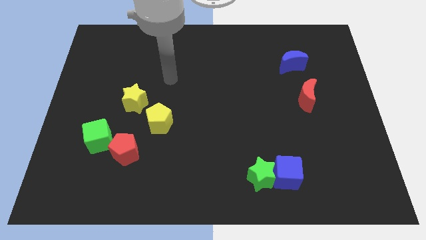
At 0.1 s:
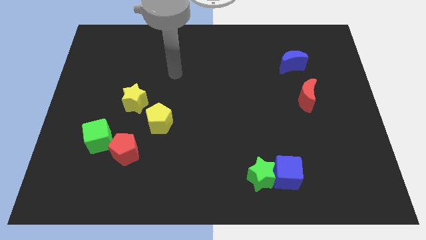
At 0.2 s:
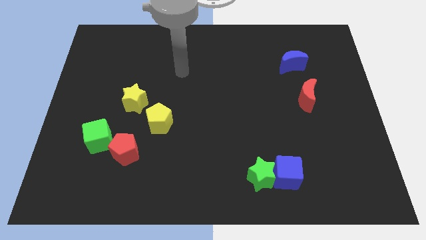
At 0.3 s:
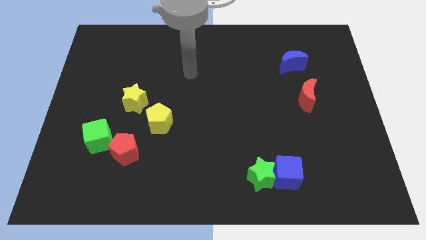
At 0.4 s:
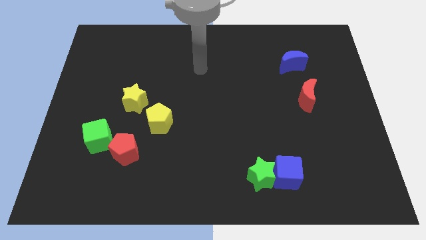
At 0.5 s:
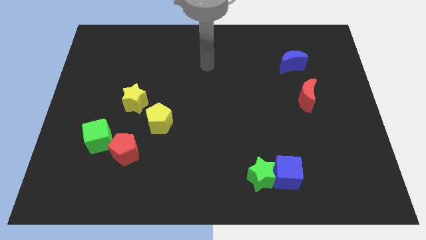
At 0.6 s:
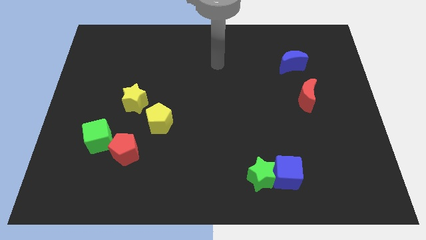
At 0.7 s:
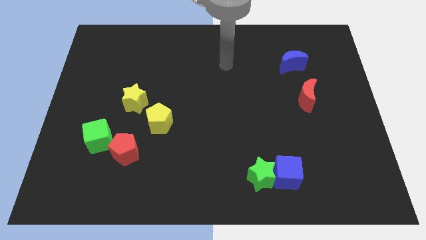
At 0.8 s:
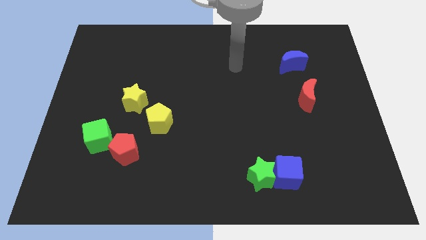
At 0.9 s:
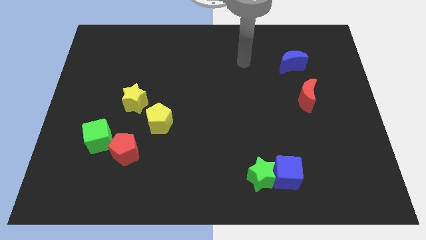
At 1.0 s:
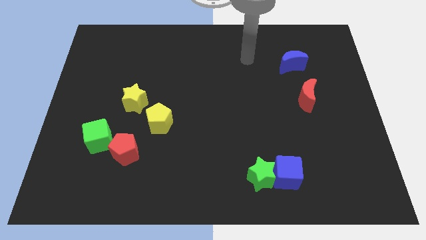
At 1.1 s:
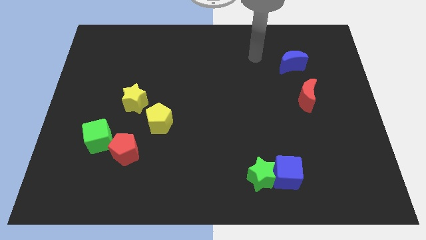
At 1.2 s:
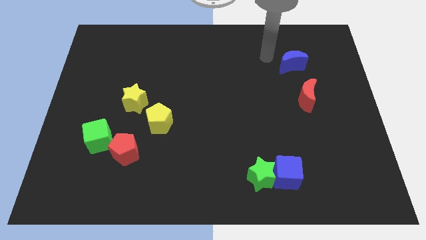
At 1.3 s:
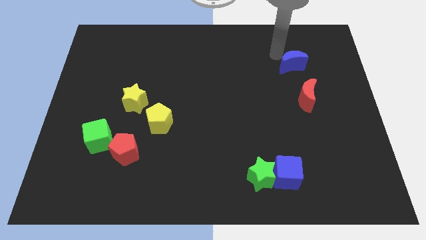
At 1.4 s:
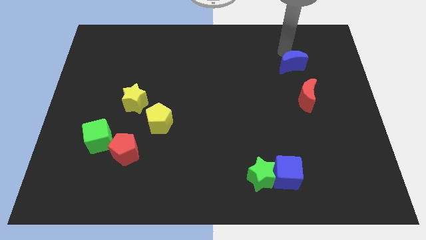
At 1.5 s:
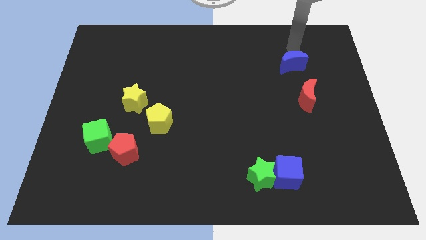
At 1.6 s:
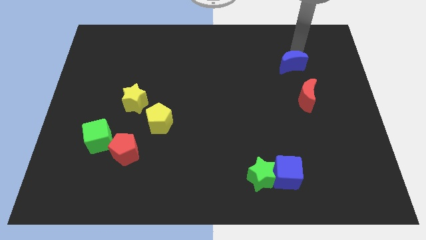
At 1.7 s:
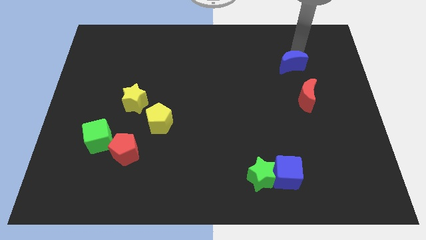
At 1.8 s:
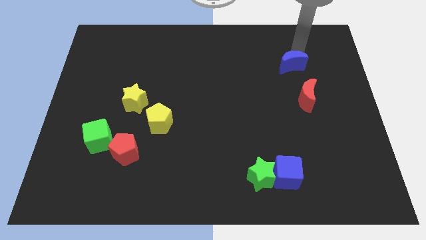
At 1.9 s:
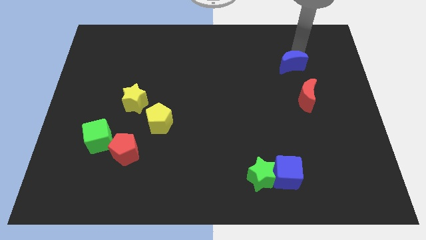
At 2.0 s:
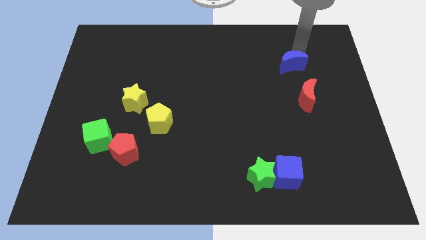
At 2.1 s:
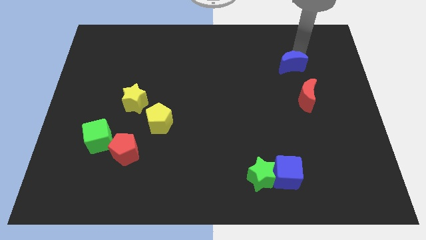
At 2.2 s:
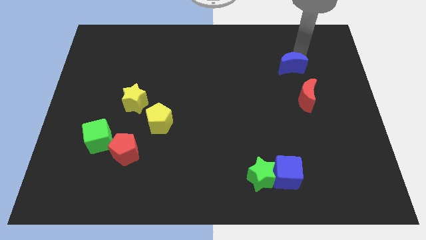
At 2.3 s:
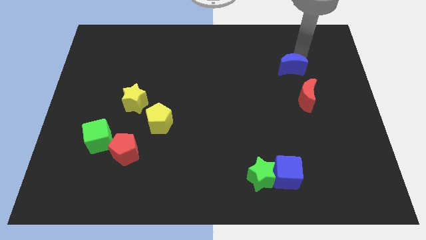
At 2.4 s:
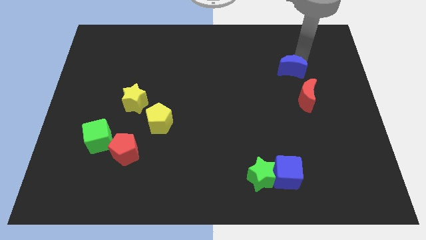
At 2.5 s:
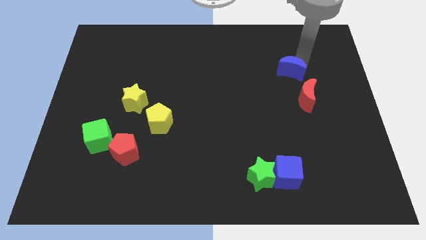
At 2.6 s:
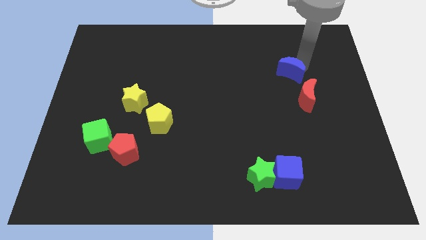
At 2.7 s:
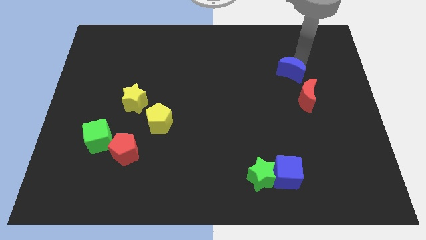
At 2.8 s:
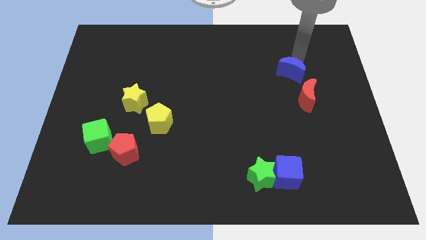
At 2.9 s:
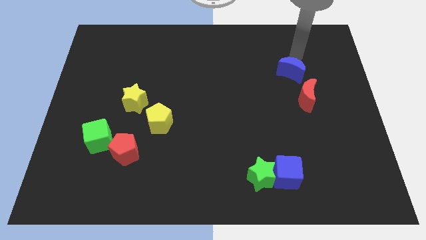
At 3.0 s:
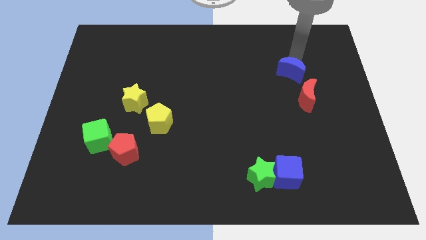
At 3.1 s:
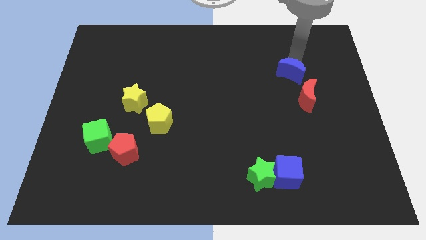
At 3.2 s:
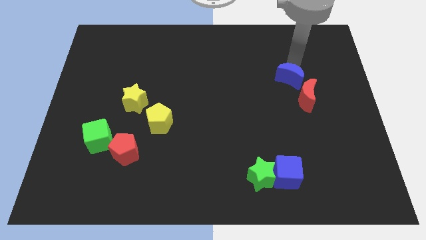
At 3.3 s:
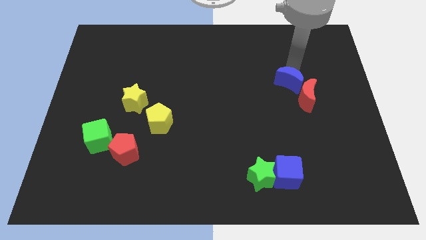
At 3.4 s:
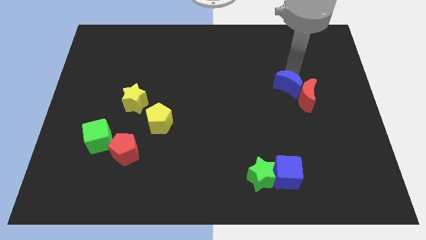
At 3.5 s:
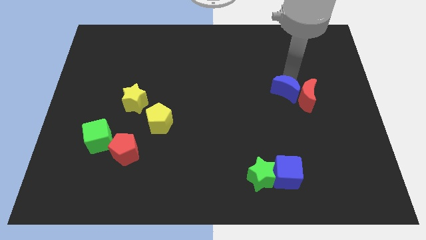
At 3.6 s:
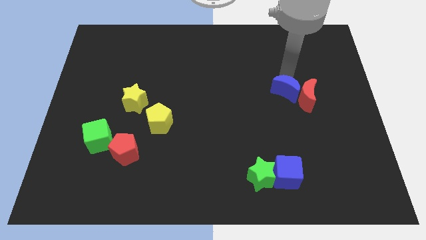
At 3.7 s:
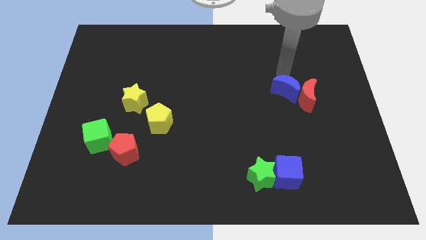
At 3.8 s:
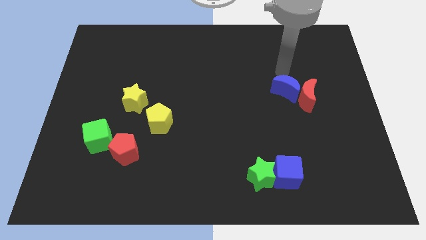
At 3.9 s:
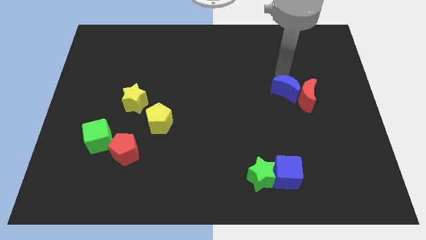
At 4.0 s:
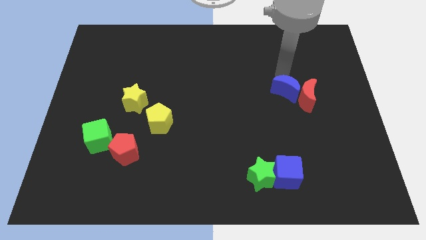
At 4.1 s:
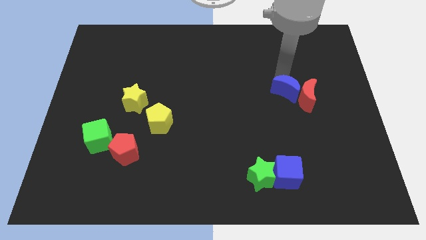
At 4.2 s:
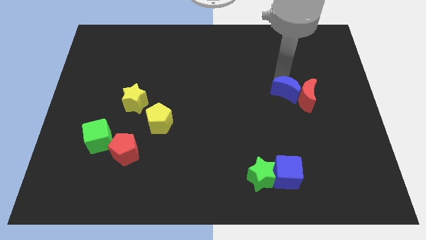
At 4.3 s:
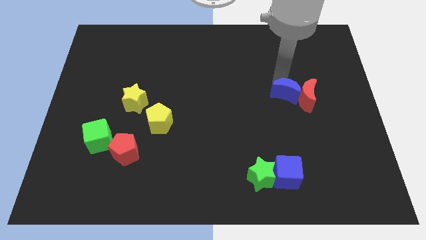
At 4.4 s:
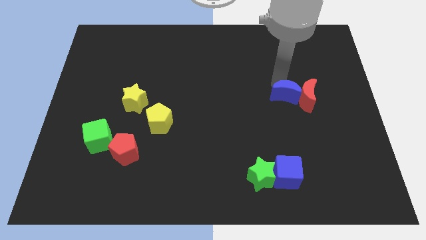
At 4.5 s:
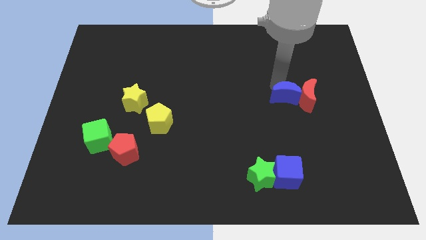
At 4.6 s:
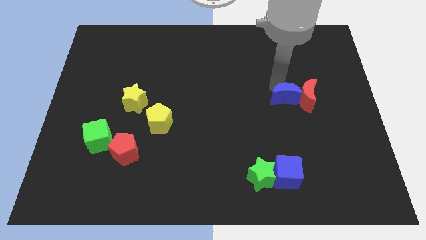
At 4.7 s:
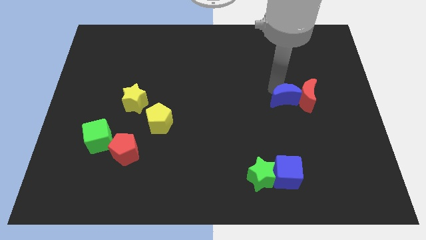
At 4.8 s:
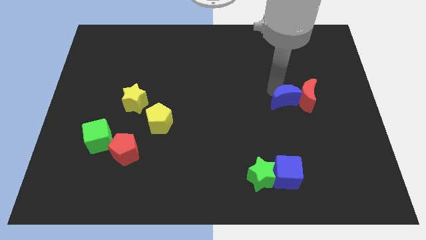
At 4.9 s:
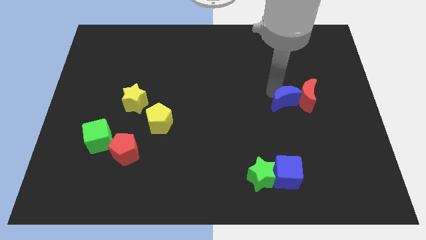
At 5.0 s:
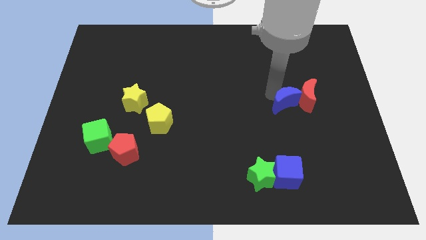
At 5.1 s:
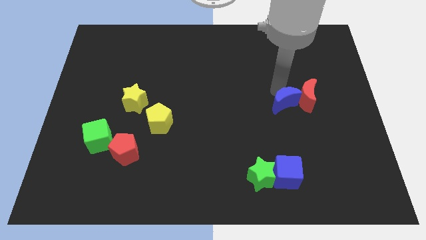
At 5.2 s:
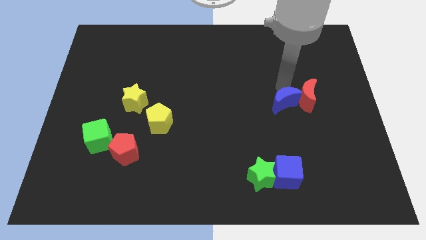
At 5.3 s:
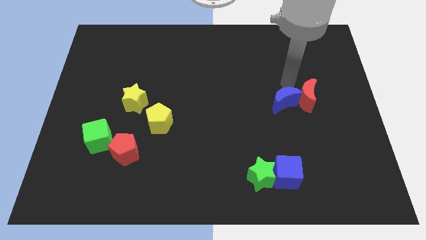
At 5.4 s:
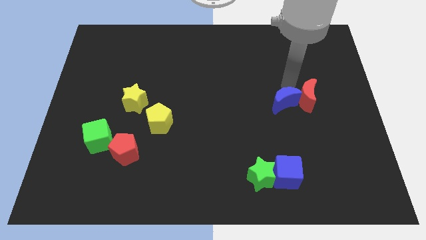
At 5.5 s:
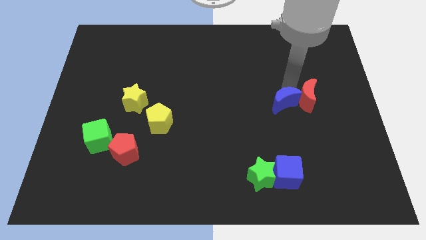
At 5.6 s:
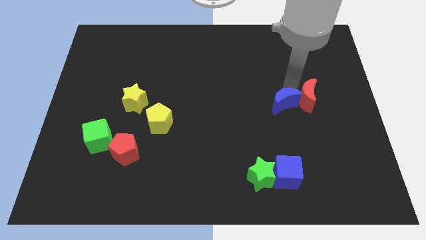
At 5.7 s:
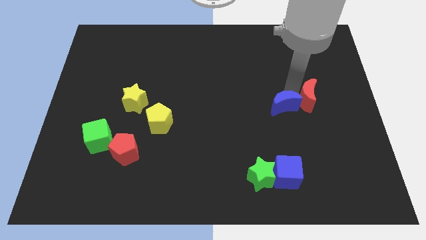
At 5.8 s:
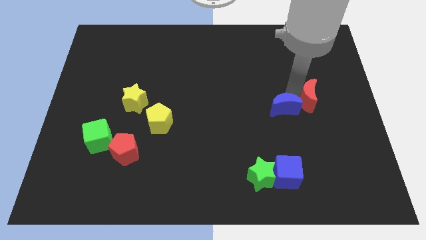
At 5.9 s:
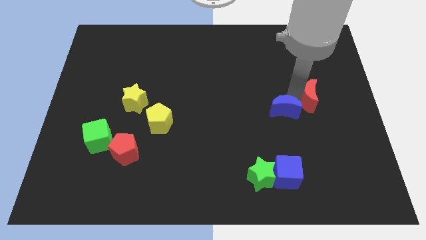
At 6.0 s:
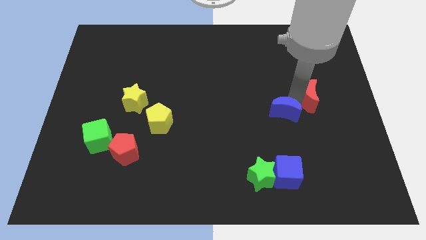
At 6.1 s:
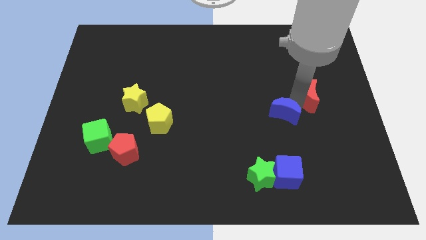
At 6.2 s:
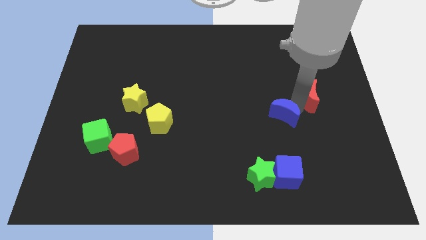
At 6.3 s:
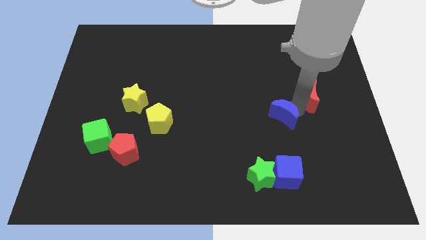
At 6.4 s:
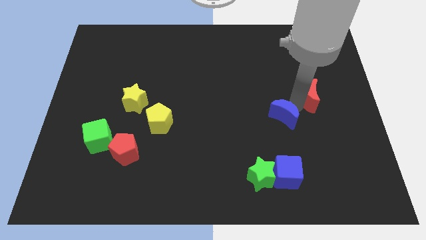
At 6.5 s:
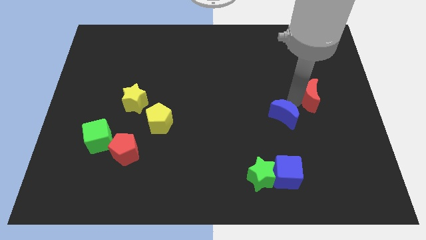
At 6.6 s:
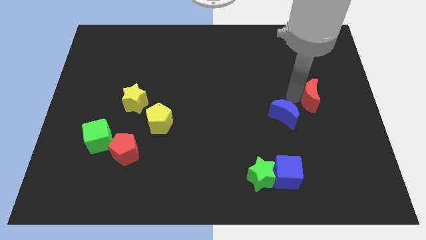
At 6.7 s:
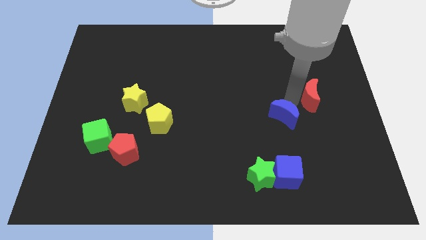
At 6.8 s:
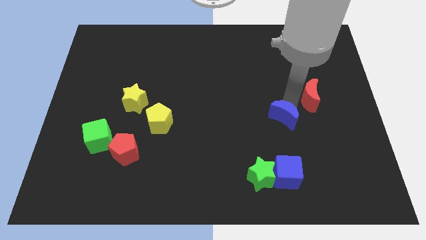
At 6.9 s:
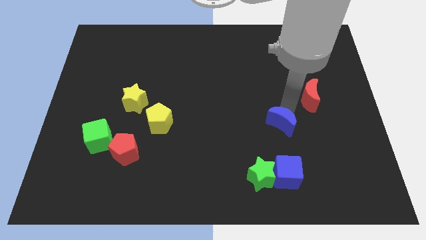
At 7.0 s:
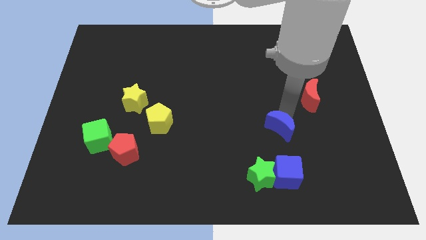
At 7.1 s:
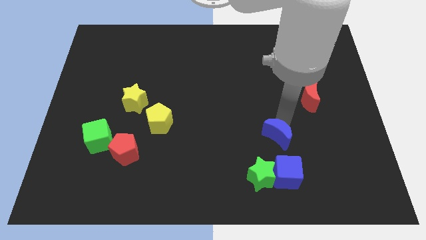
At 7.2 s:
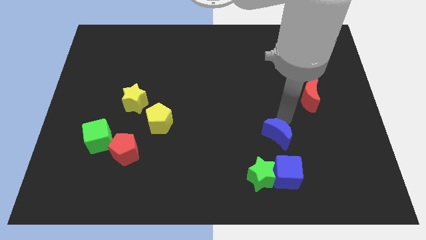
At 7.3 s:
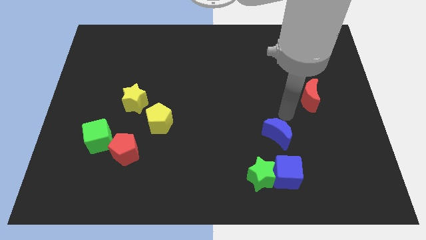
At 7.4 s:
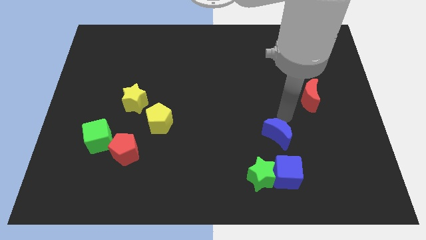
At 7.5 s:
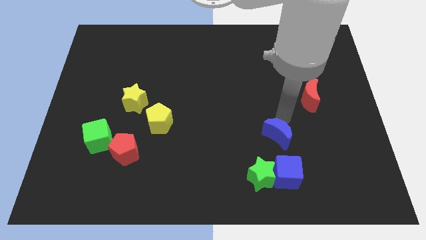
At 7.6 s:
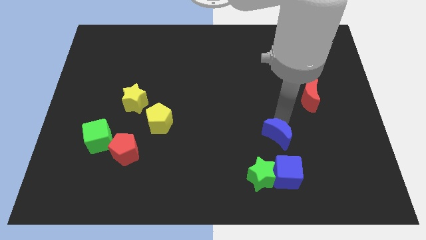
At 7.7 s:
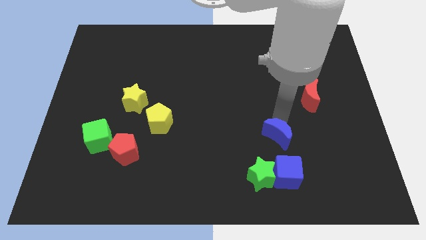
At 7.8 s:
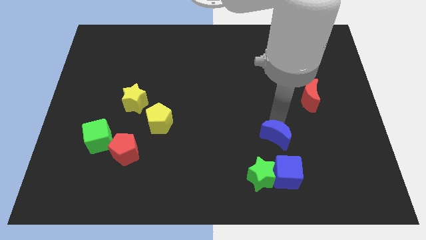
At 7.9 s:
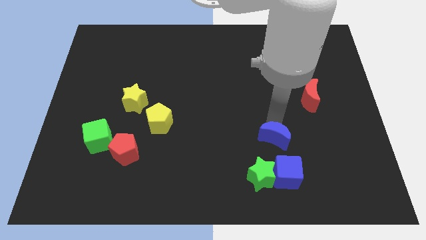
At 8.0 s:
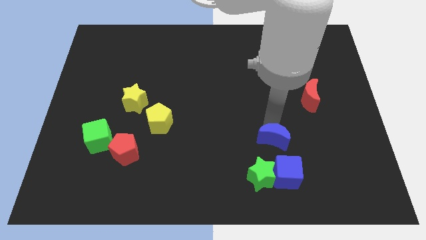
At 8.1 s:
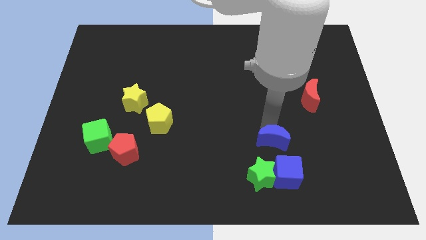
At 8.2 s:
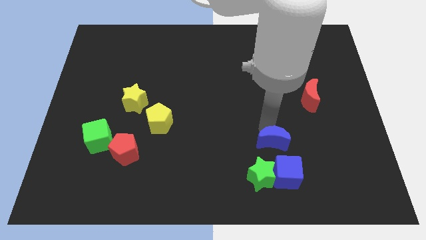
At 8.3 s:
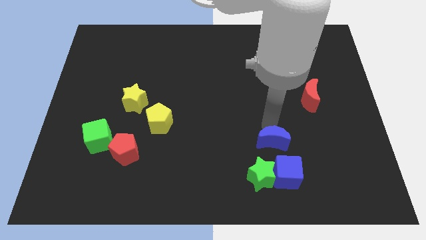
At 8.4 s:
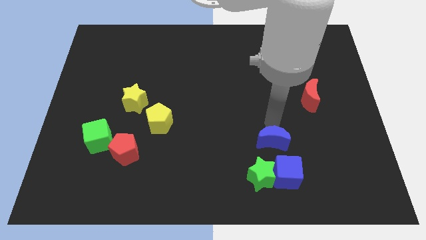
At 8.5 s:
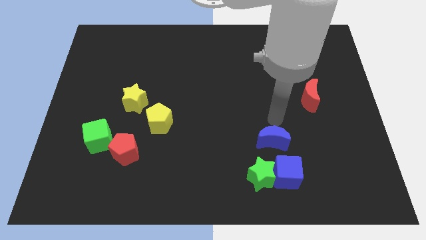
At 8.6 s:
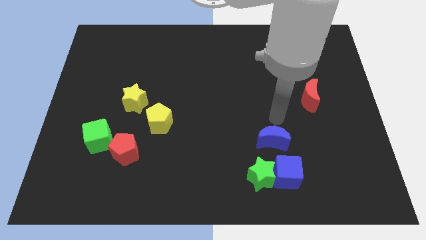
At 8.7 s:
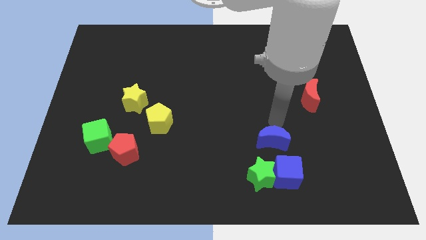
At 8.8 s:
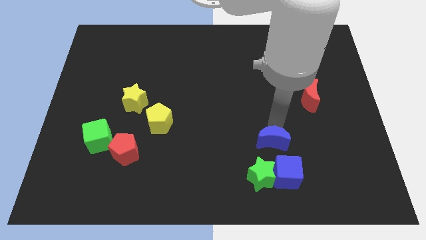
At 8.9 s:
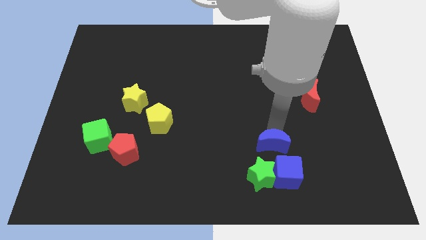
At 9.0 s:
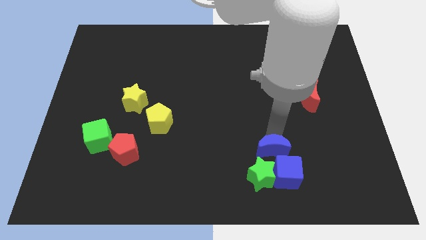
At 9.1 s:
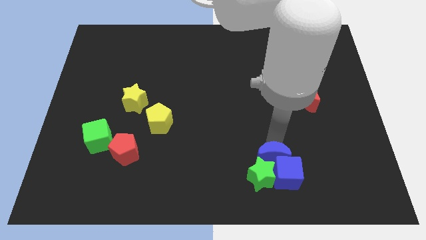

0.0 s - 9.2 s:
slide the blue moon next to the green star
